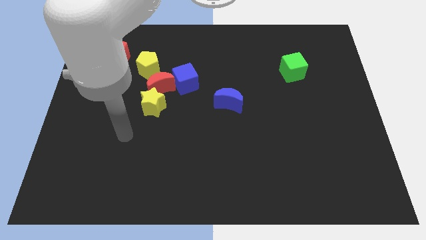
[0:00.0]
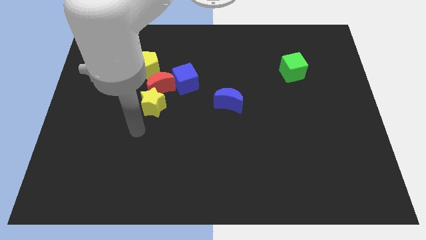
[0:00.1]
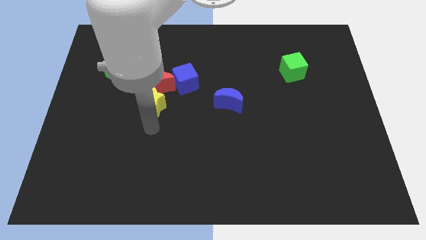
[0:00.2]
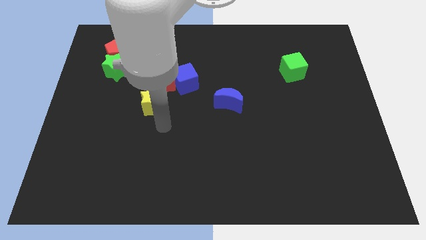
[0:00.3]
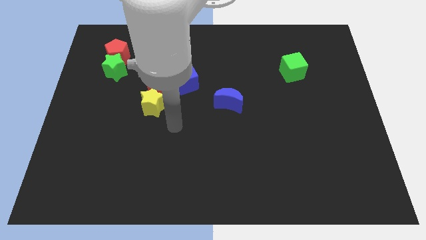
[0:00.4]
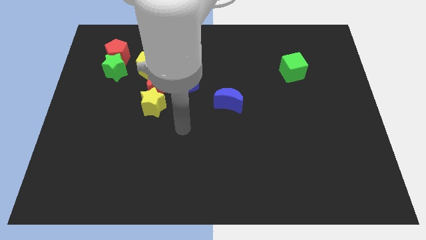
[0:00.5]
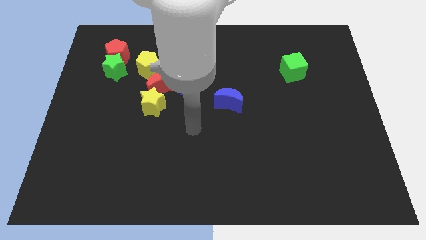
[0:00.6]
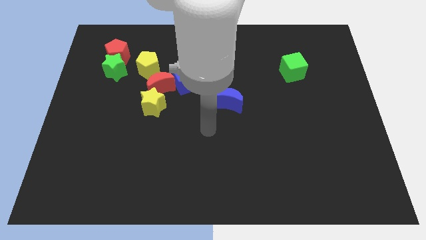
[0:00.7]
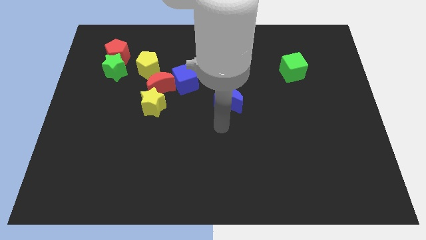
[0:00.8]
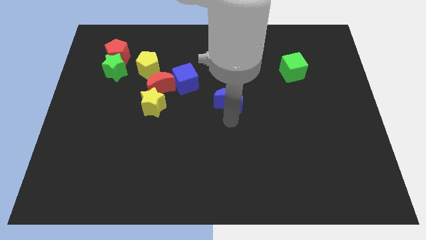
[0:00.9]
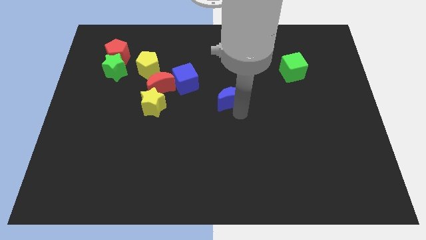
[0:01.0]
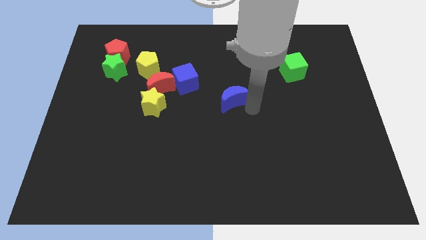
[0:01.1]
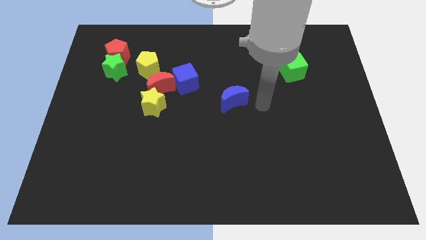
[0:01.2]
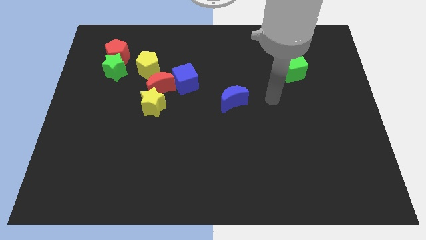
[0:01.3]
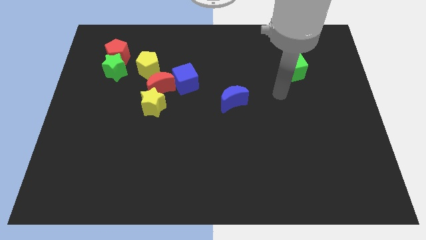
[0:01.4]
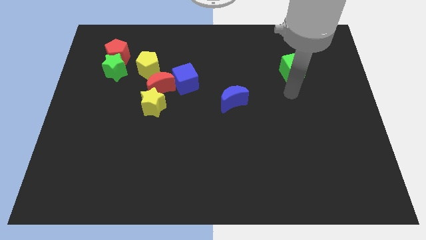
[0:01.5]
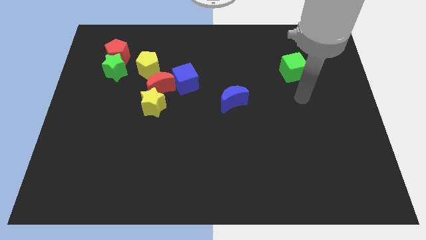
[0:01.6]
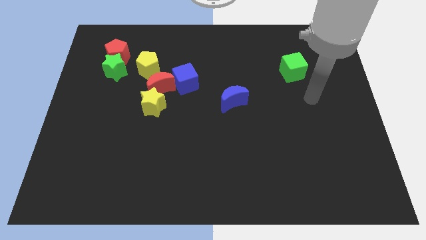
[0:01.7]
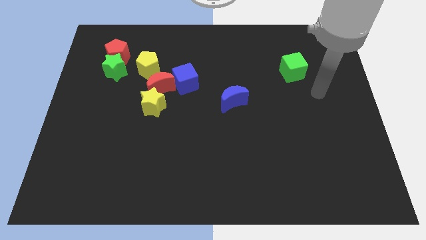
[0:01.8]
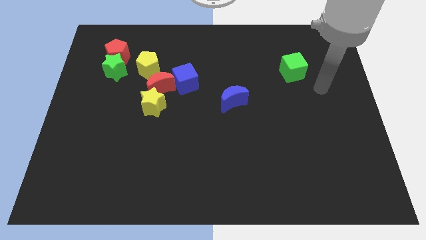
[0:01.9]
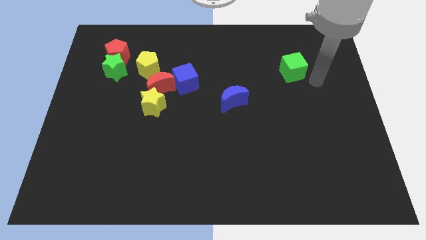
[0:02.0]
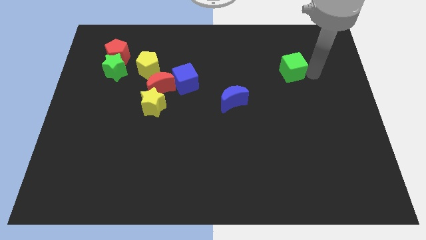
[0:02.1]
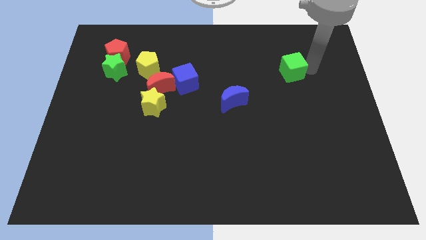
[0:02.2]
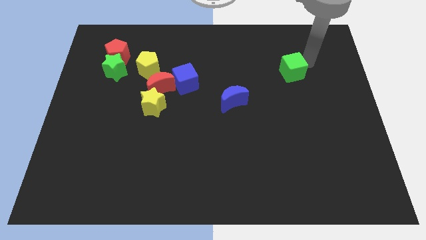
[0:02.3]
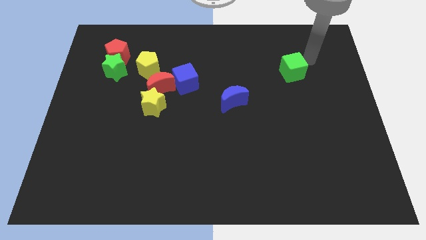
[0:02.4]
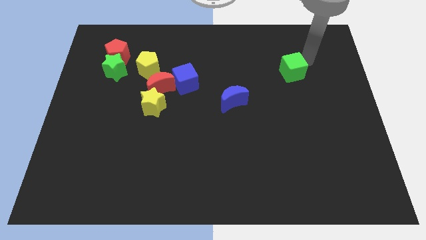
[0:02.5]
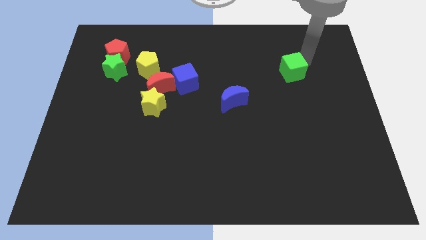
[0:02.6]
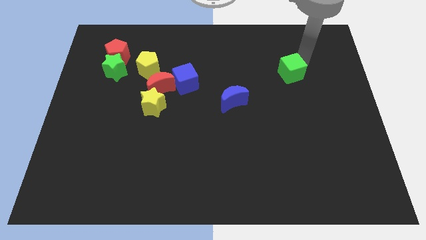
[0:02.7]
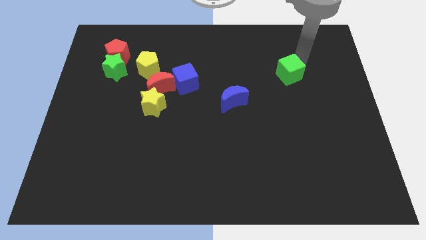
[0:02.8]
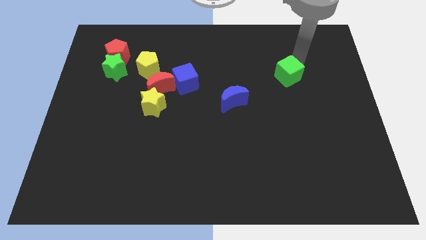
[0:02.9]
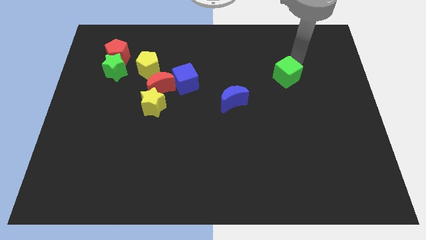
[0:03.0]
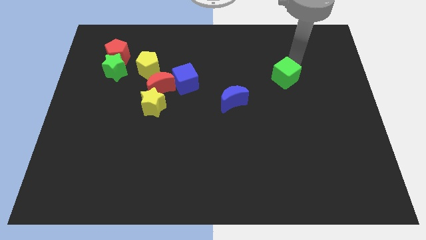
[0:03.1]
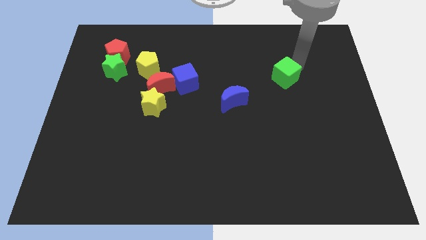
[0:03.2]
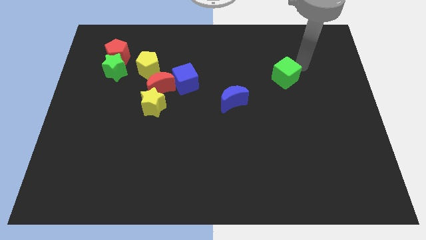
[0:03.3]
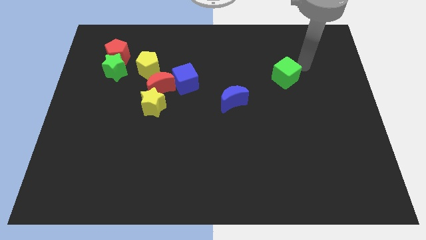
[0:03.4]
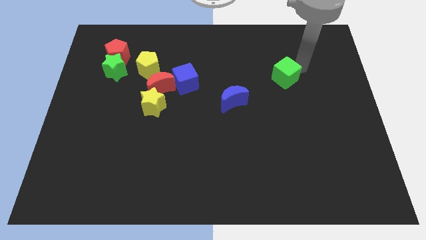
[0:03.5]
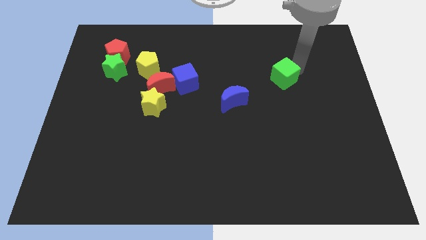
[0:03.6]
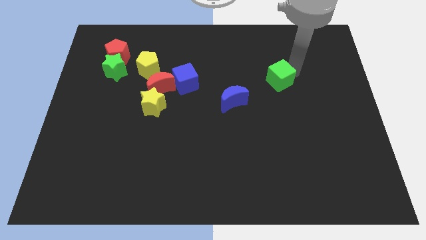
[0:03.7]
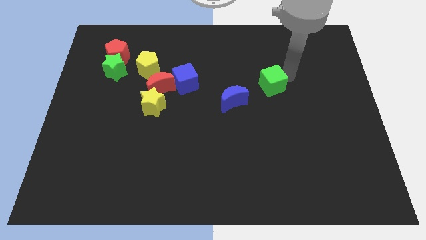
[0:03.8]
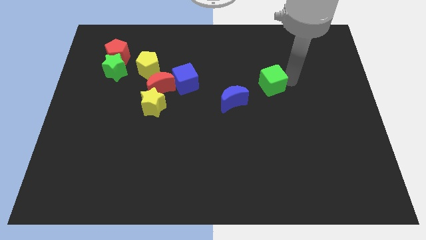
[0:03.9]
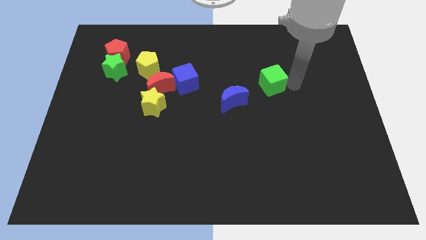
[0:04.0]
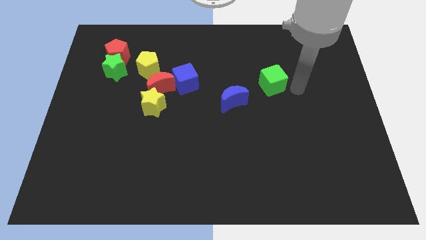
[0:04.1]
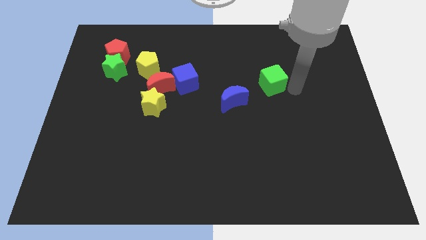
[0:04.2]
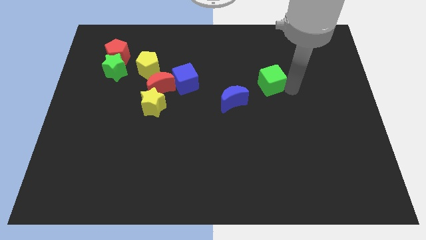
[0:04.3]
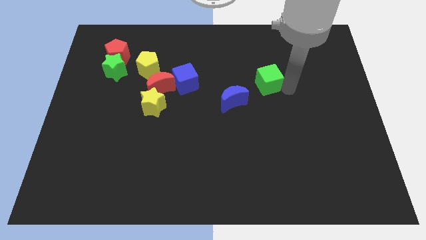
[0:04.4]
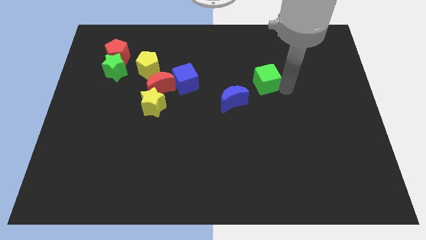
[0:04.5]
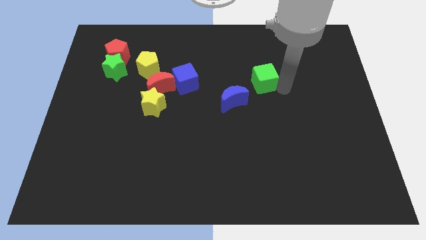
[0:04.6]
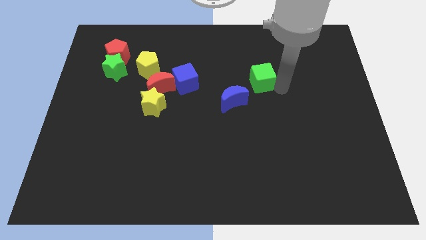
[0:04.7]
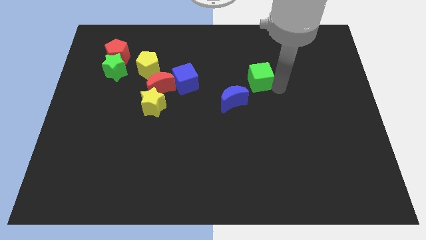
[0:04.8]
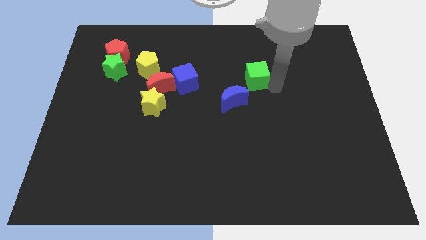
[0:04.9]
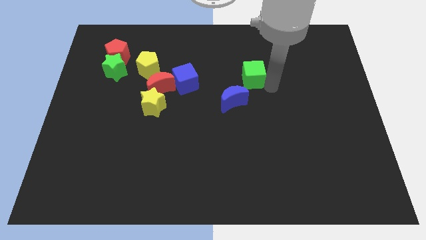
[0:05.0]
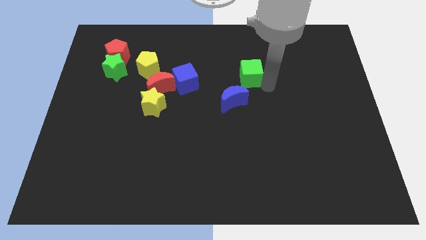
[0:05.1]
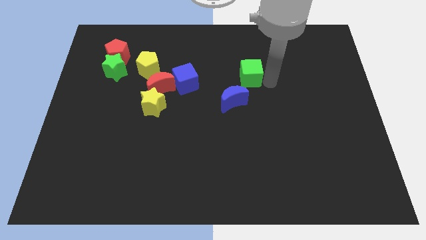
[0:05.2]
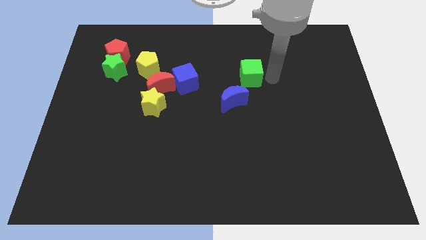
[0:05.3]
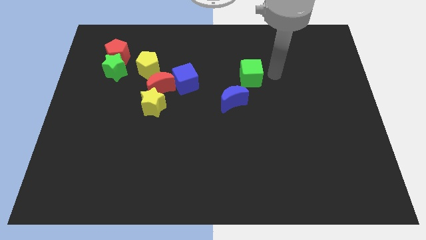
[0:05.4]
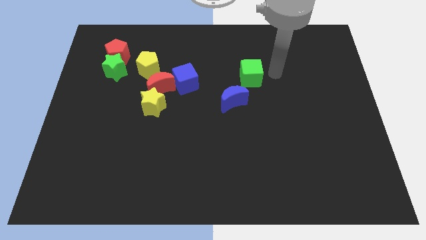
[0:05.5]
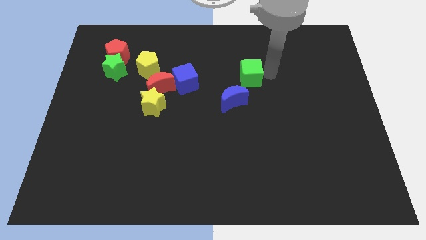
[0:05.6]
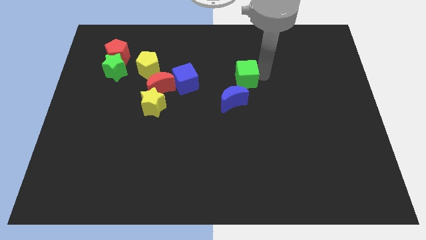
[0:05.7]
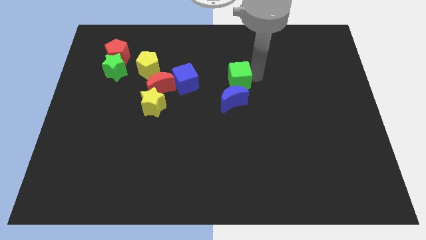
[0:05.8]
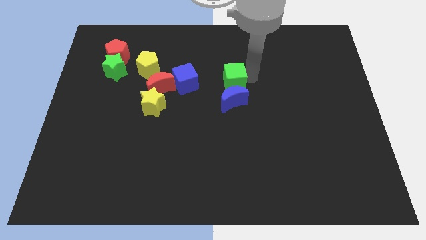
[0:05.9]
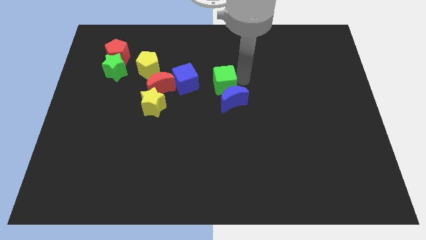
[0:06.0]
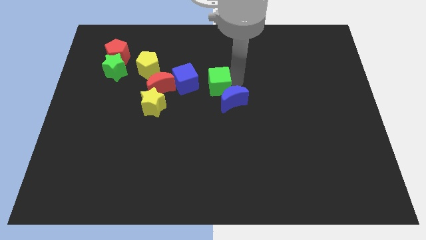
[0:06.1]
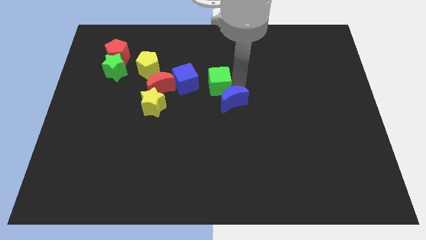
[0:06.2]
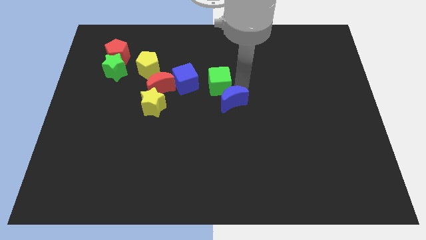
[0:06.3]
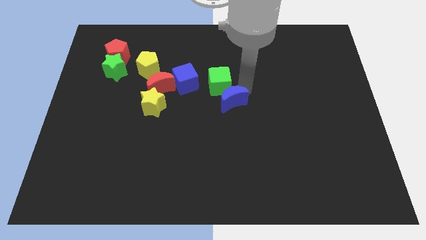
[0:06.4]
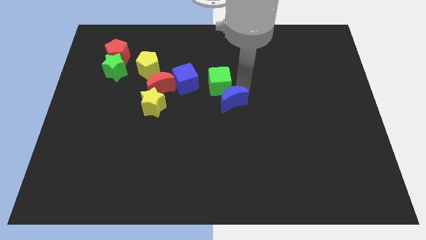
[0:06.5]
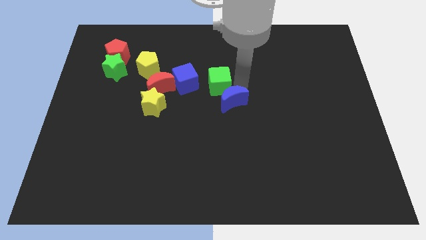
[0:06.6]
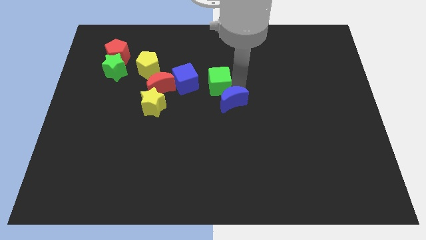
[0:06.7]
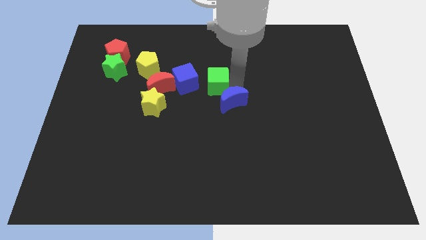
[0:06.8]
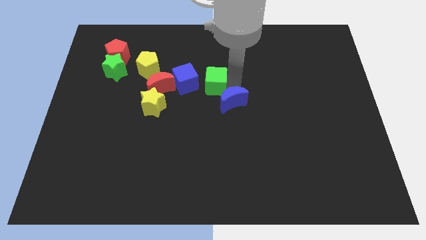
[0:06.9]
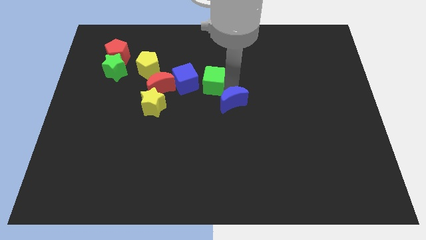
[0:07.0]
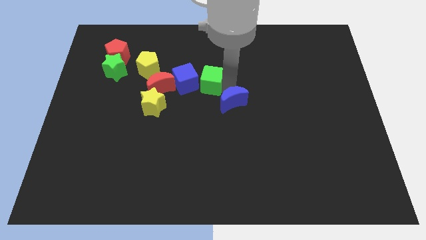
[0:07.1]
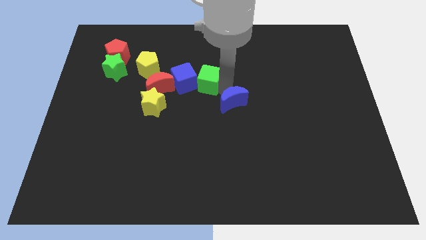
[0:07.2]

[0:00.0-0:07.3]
put the green cube to the blue cube
